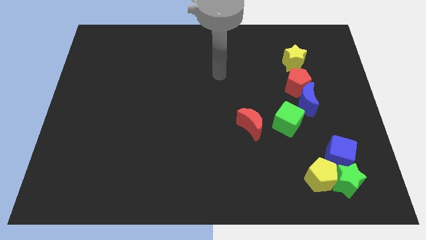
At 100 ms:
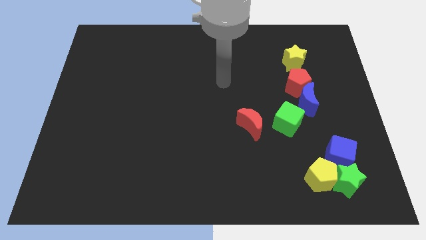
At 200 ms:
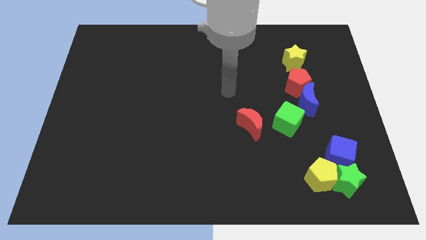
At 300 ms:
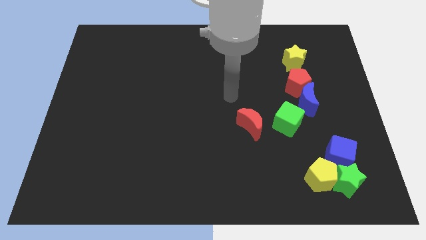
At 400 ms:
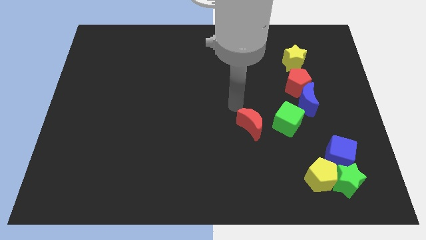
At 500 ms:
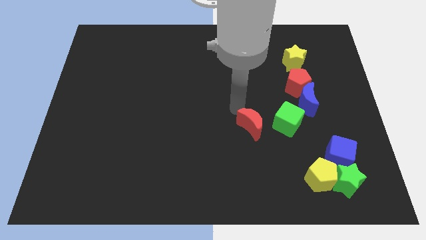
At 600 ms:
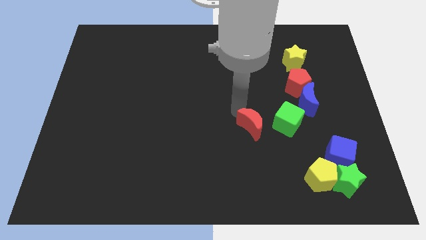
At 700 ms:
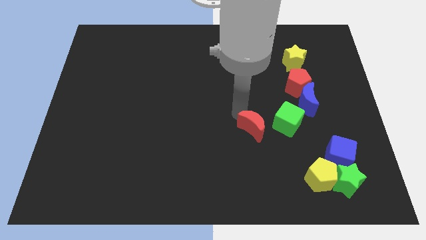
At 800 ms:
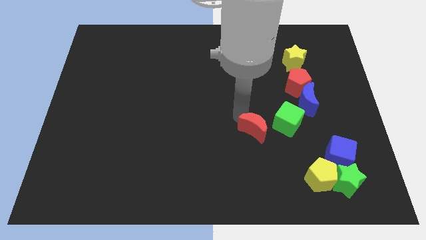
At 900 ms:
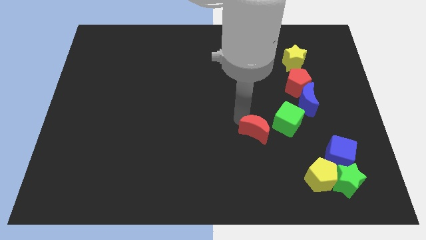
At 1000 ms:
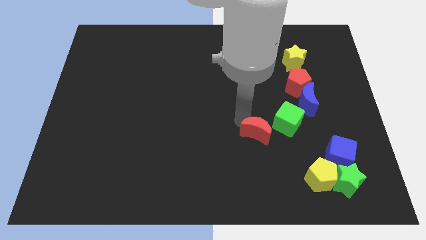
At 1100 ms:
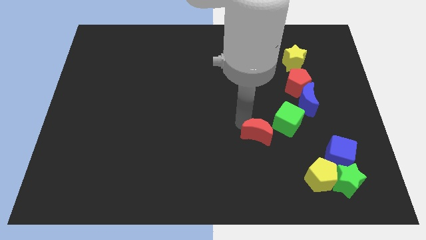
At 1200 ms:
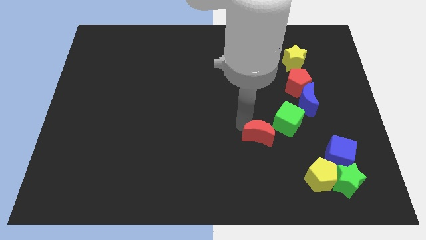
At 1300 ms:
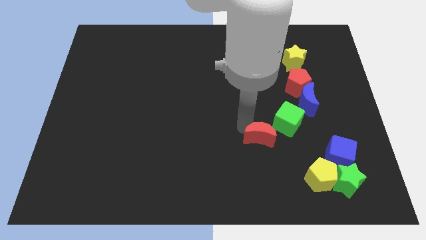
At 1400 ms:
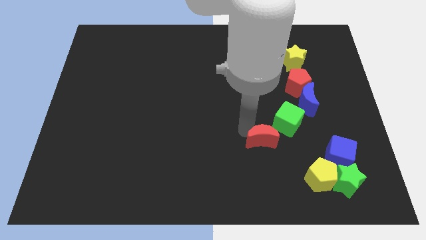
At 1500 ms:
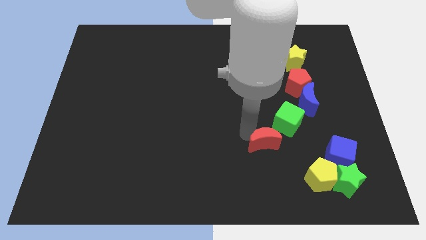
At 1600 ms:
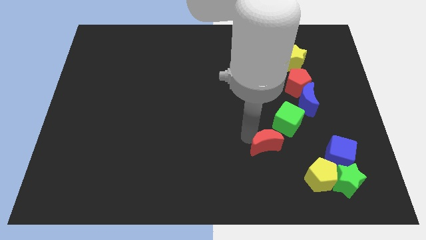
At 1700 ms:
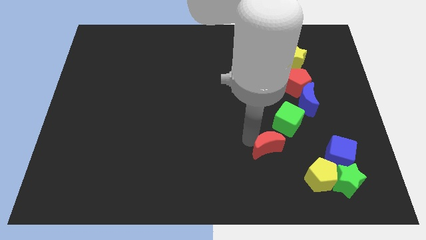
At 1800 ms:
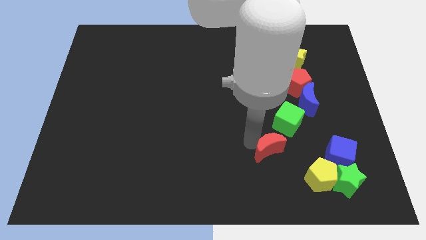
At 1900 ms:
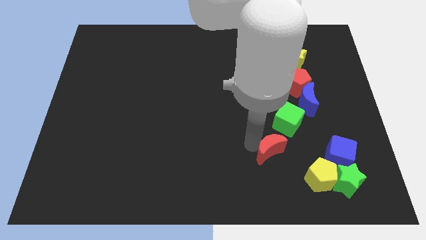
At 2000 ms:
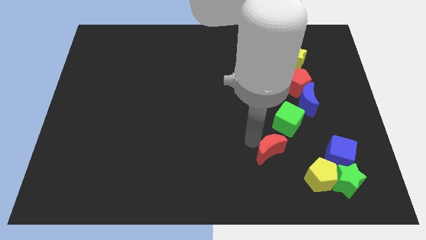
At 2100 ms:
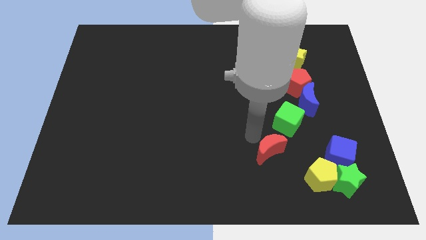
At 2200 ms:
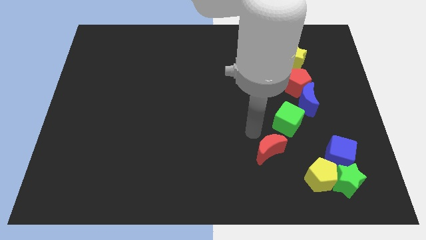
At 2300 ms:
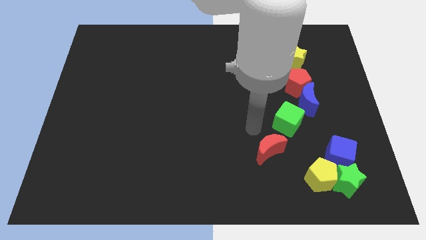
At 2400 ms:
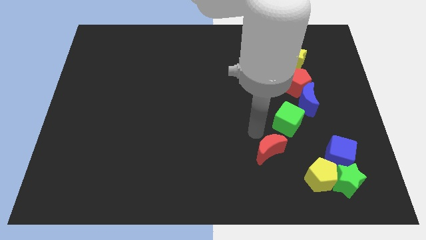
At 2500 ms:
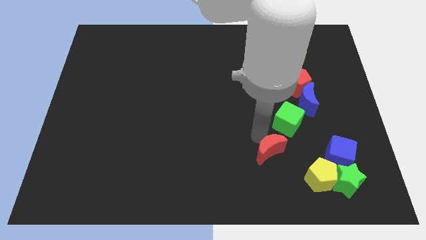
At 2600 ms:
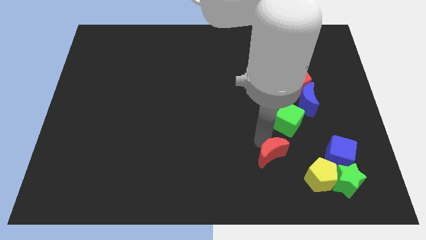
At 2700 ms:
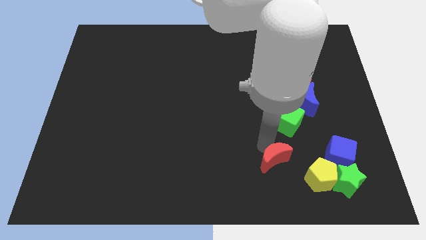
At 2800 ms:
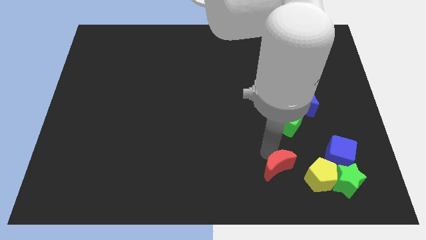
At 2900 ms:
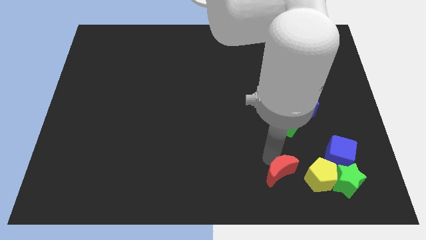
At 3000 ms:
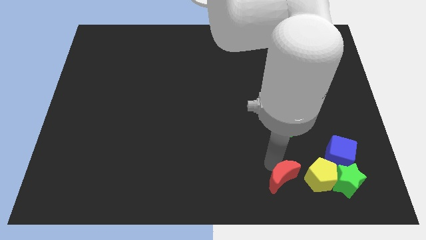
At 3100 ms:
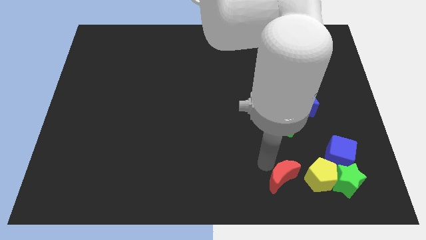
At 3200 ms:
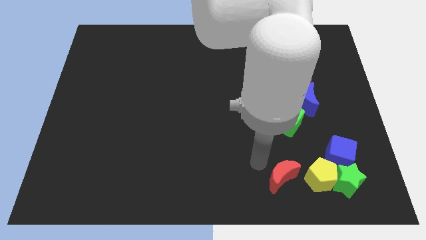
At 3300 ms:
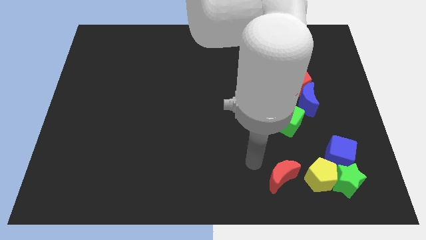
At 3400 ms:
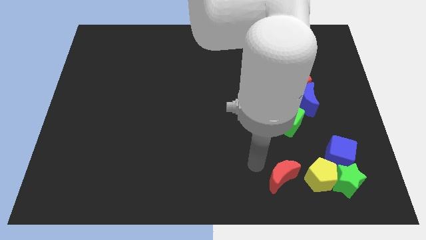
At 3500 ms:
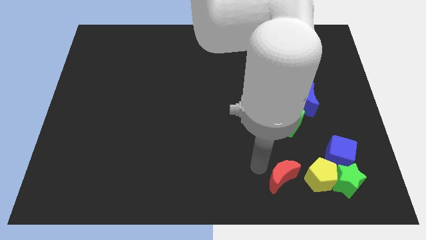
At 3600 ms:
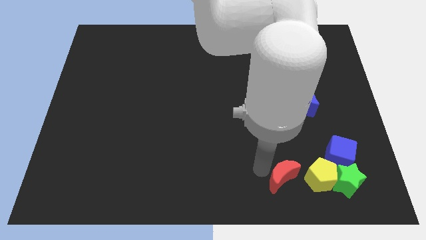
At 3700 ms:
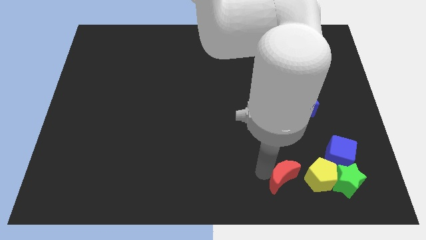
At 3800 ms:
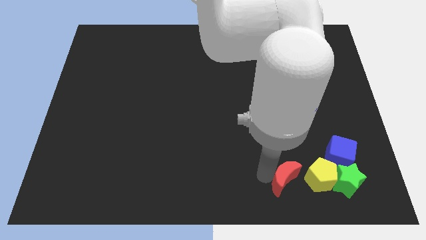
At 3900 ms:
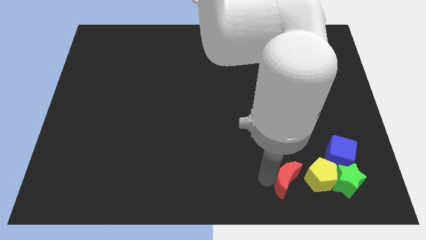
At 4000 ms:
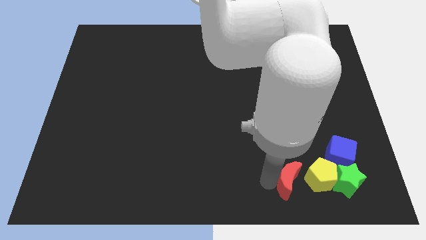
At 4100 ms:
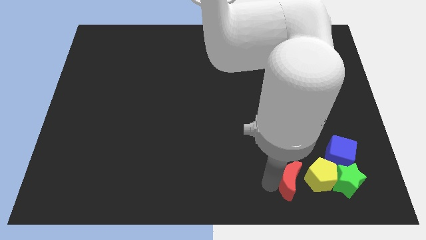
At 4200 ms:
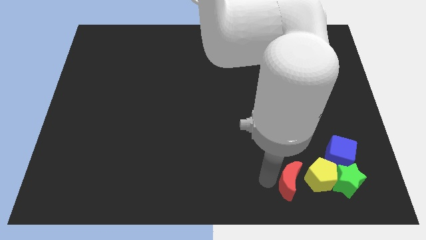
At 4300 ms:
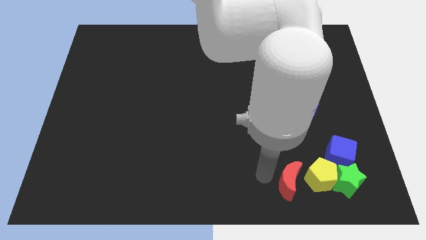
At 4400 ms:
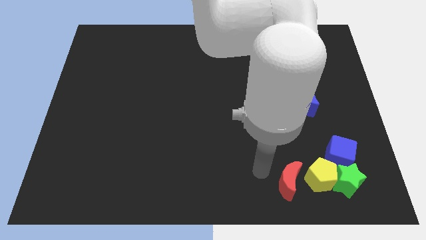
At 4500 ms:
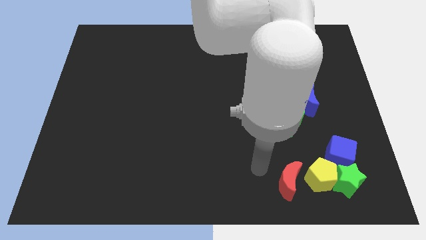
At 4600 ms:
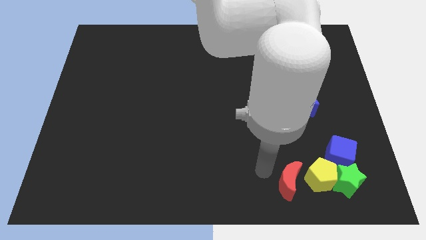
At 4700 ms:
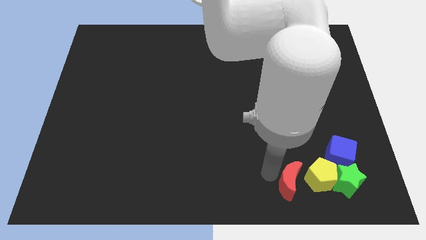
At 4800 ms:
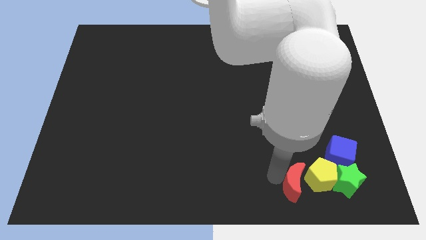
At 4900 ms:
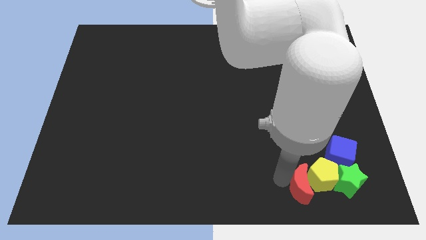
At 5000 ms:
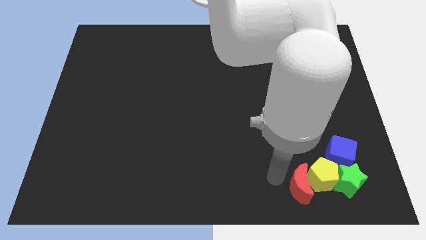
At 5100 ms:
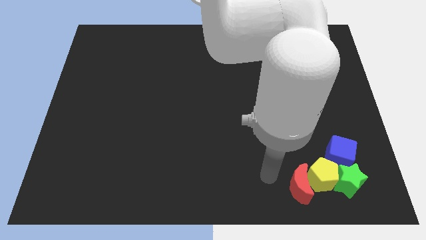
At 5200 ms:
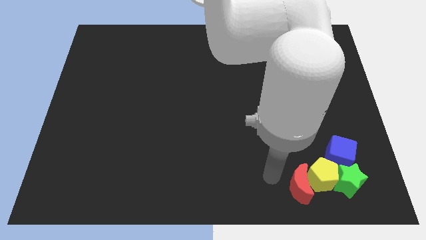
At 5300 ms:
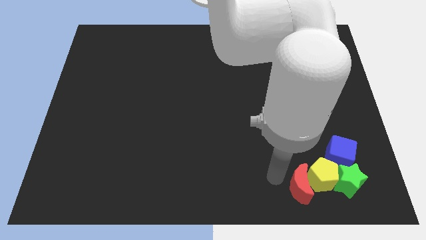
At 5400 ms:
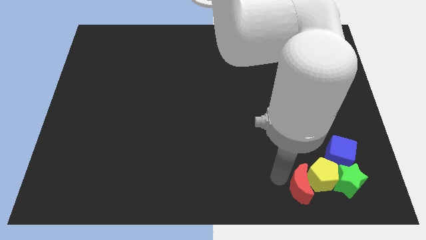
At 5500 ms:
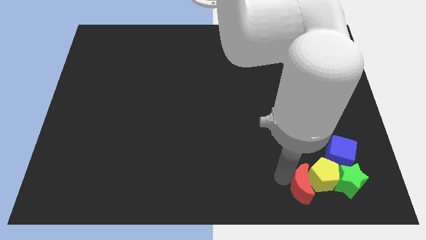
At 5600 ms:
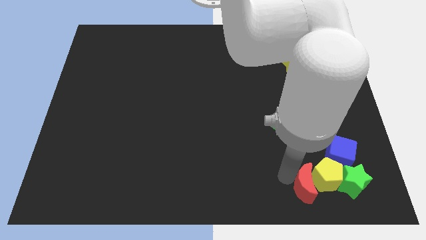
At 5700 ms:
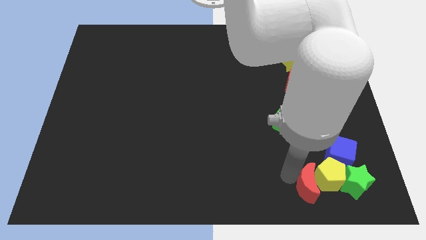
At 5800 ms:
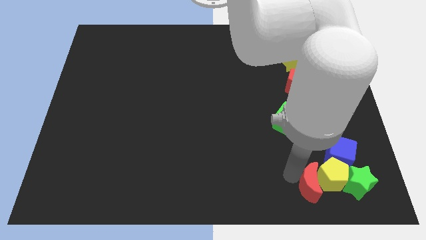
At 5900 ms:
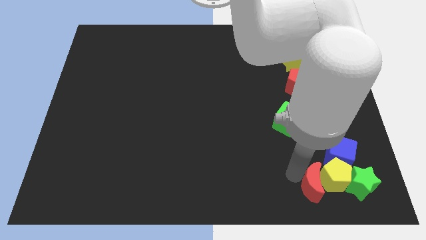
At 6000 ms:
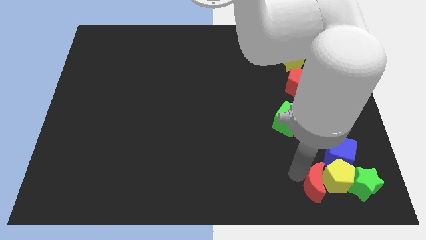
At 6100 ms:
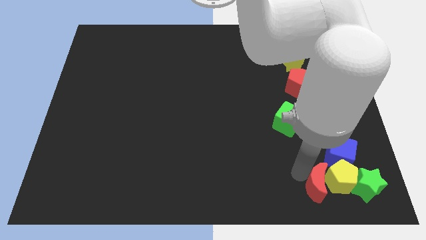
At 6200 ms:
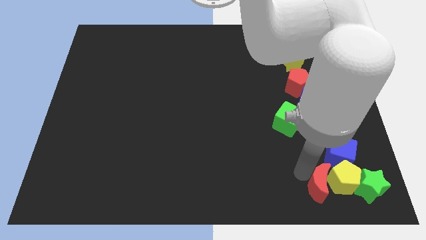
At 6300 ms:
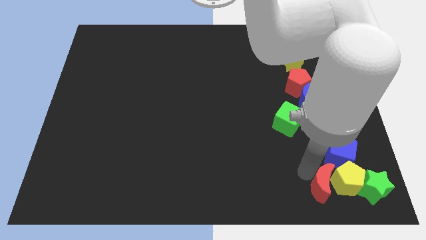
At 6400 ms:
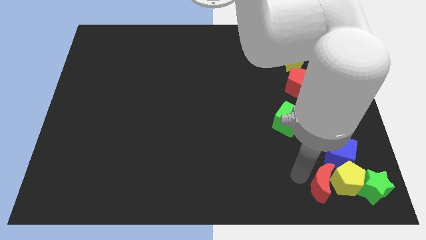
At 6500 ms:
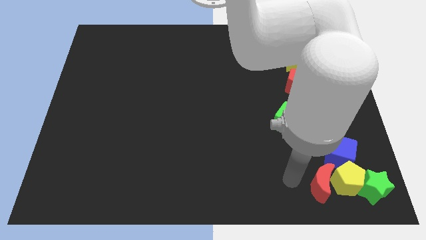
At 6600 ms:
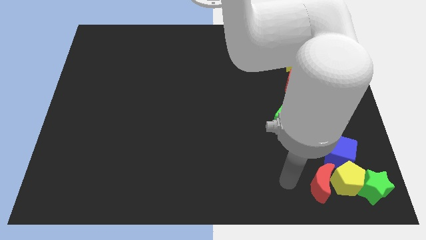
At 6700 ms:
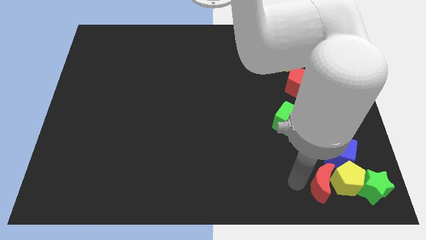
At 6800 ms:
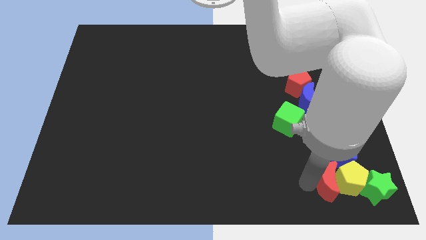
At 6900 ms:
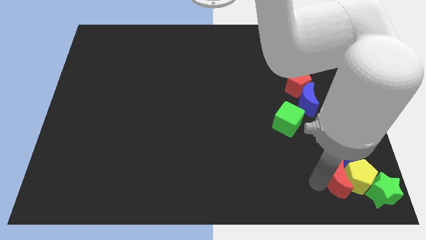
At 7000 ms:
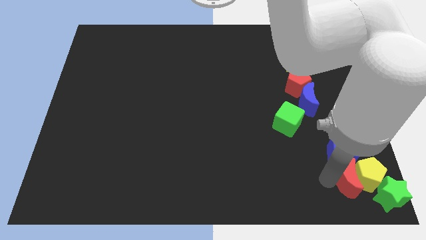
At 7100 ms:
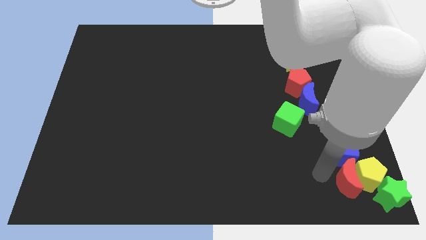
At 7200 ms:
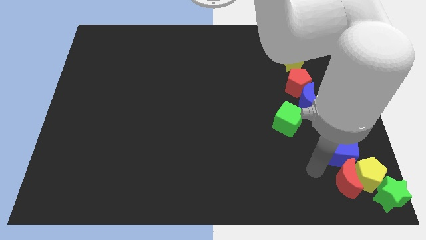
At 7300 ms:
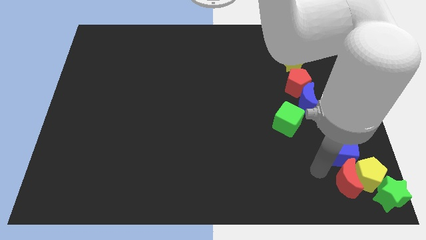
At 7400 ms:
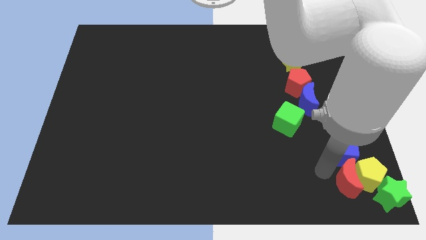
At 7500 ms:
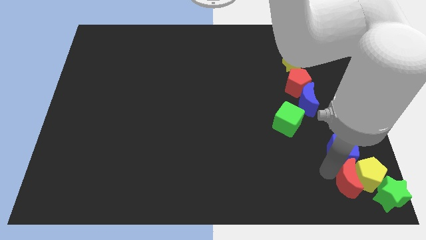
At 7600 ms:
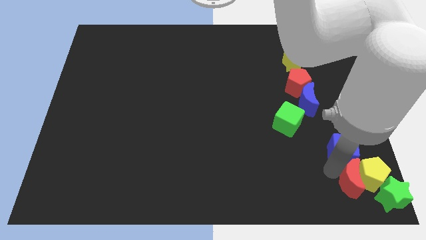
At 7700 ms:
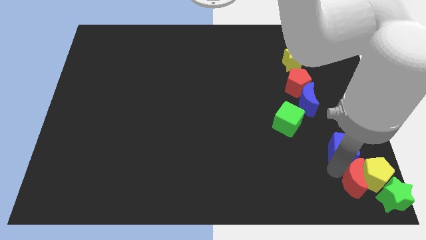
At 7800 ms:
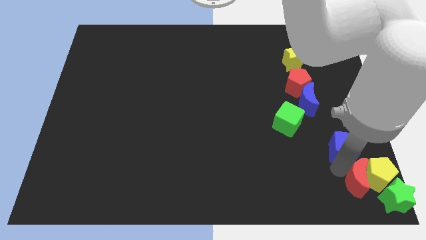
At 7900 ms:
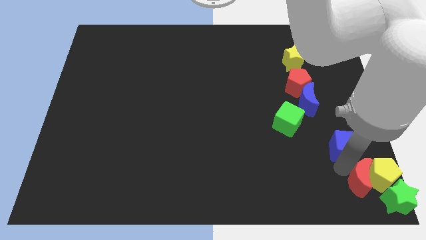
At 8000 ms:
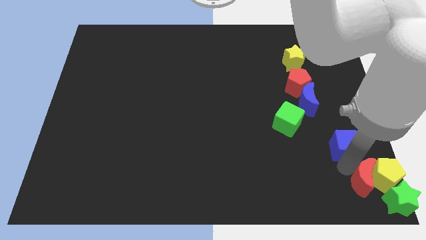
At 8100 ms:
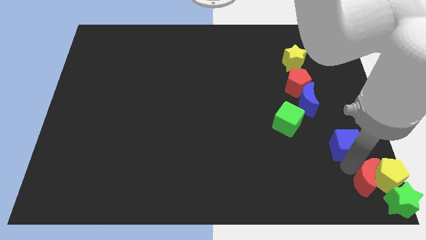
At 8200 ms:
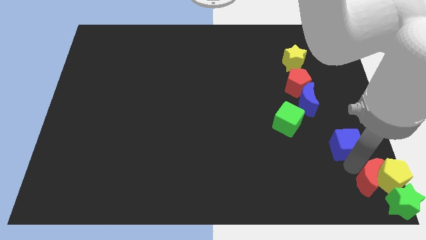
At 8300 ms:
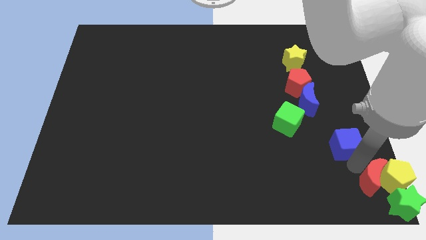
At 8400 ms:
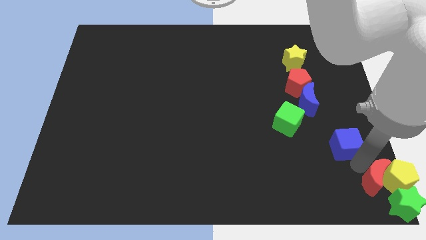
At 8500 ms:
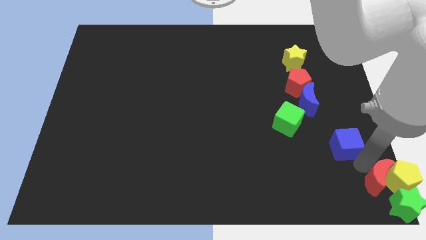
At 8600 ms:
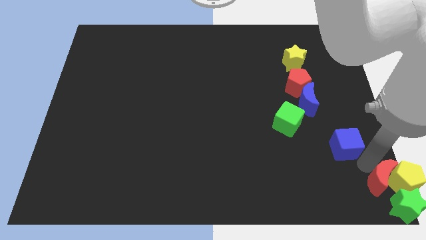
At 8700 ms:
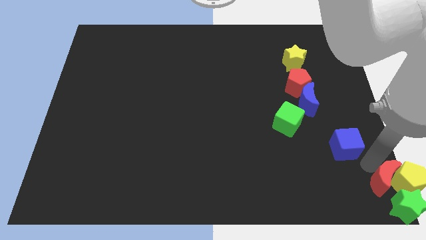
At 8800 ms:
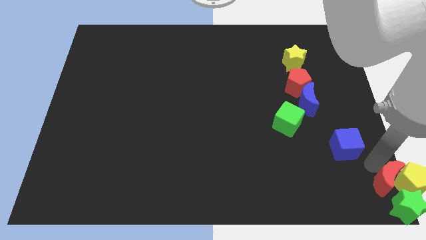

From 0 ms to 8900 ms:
push the red moon to the green star
